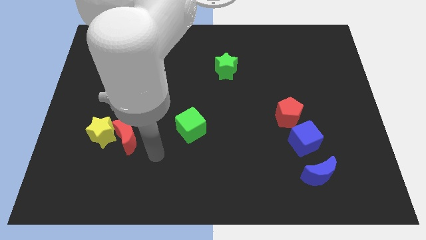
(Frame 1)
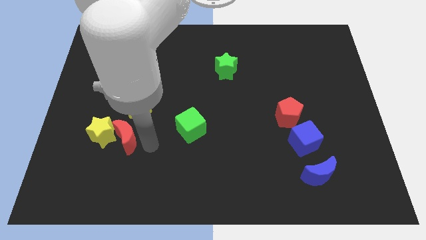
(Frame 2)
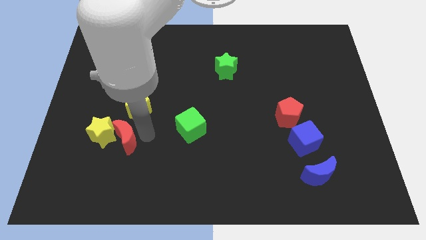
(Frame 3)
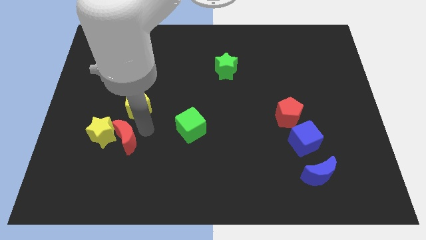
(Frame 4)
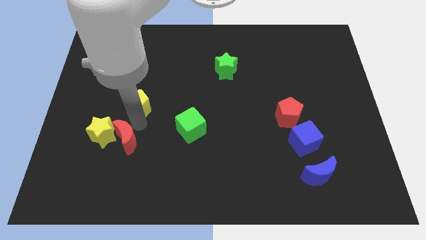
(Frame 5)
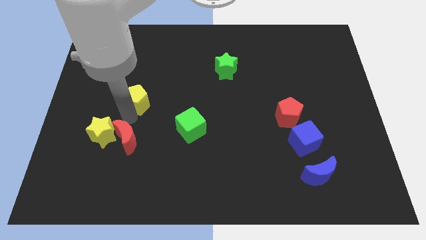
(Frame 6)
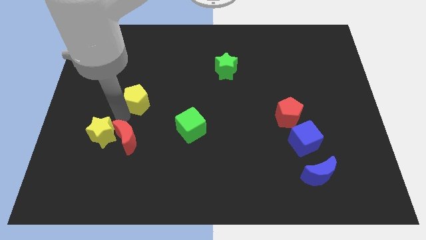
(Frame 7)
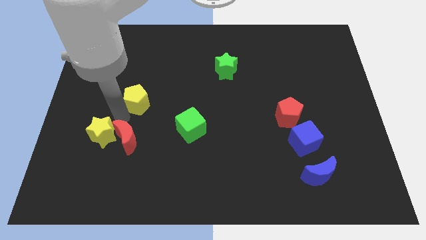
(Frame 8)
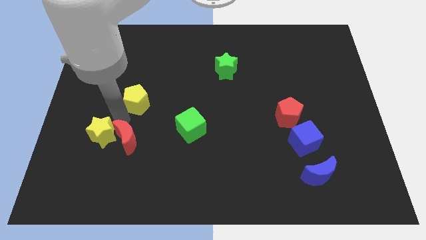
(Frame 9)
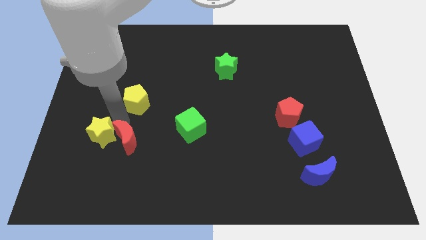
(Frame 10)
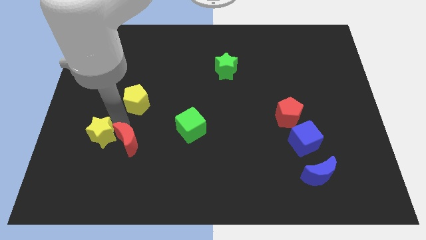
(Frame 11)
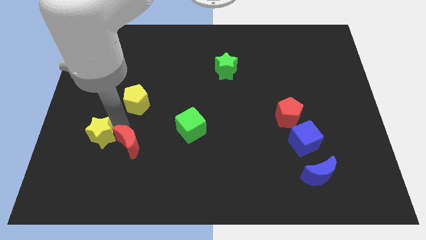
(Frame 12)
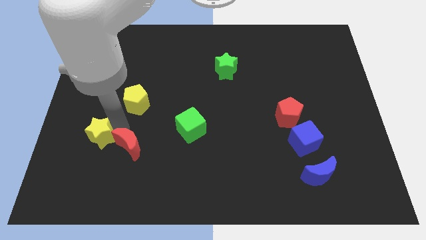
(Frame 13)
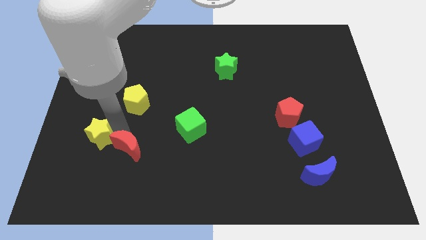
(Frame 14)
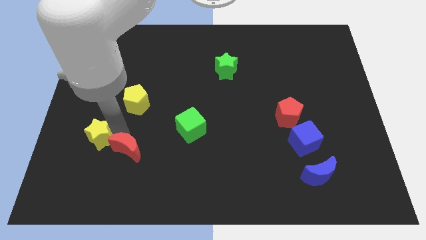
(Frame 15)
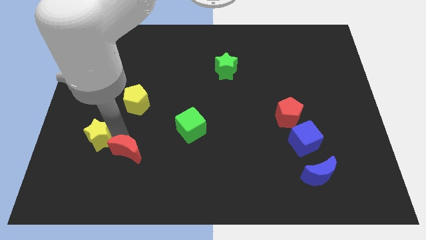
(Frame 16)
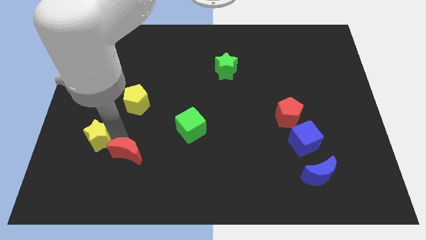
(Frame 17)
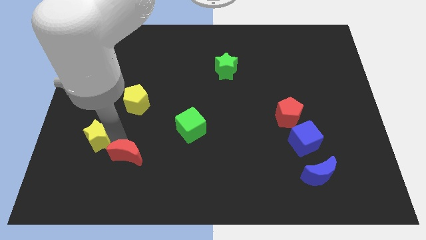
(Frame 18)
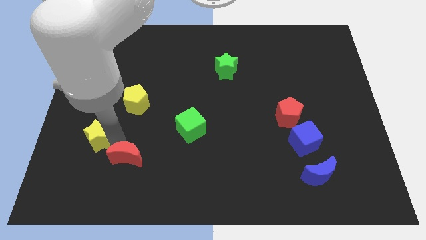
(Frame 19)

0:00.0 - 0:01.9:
separate the red moon from the yellow star and yellow pentagon

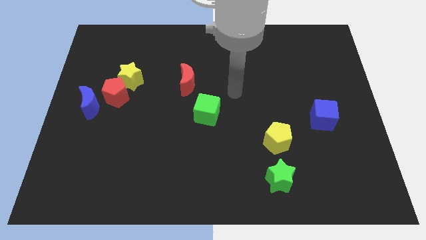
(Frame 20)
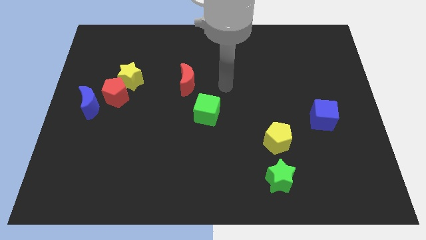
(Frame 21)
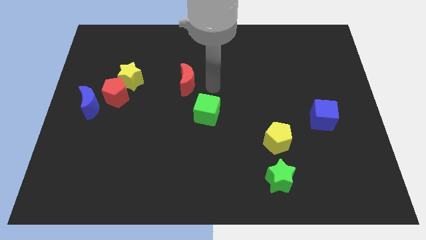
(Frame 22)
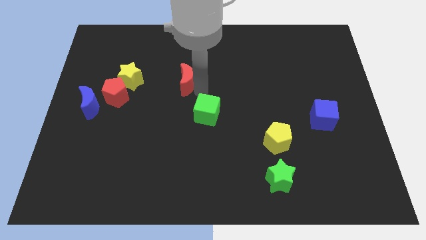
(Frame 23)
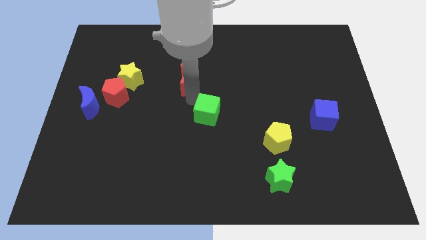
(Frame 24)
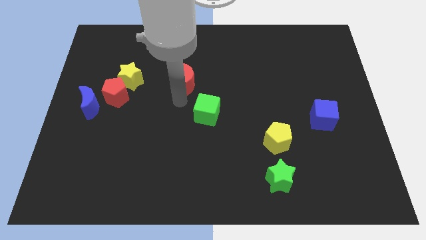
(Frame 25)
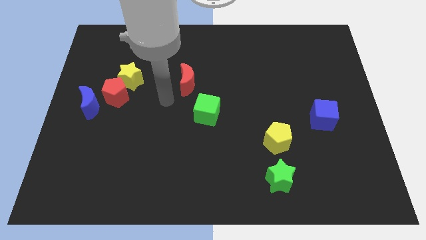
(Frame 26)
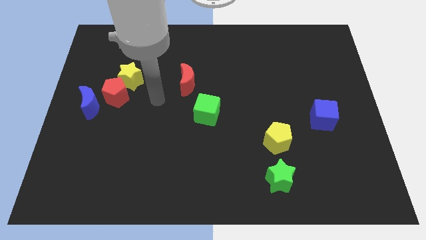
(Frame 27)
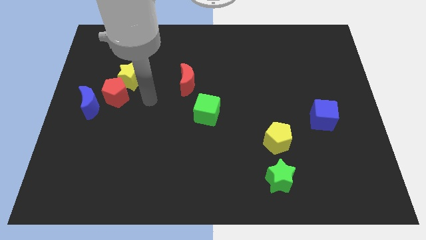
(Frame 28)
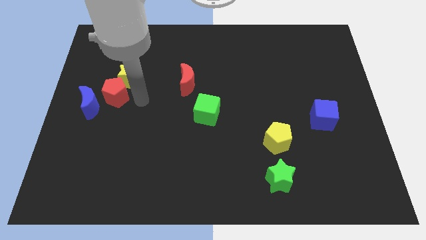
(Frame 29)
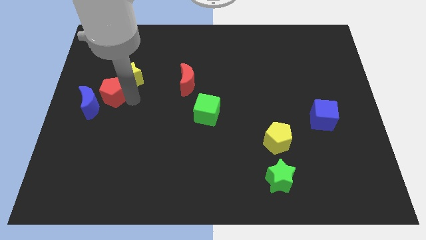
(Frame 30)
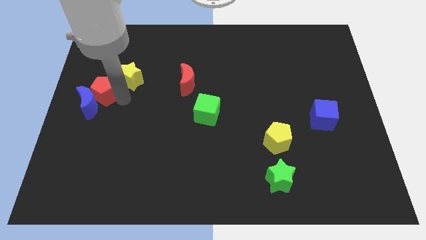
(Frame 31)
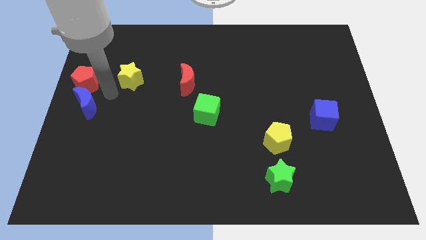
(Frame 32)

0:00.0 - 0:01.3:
separate the yellow star from the red pentagon

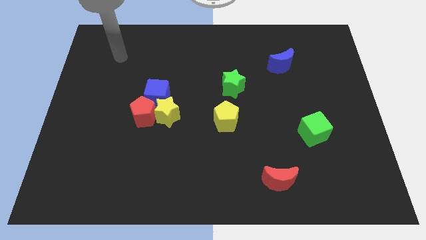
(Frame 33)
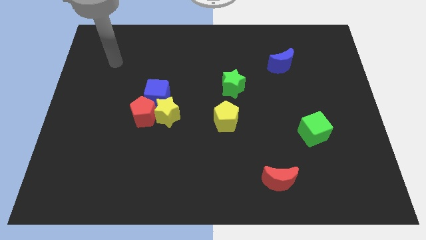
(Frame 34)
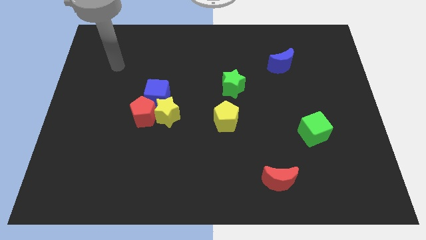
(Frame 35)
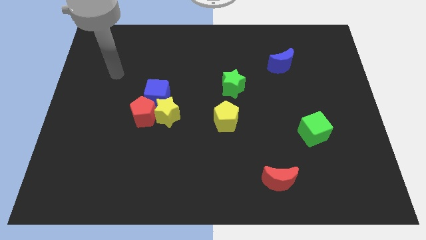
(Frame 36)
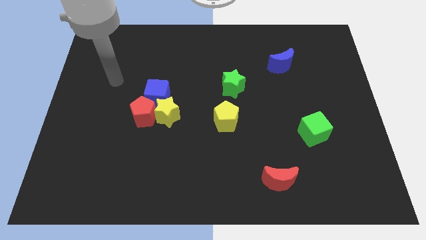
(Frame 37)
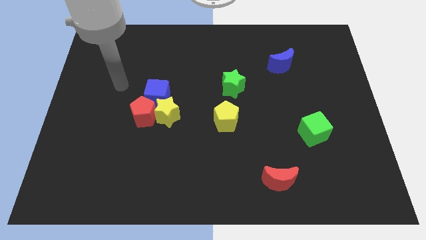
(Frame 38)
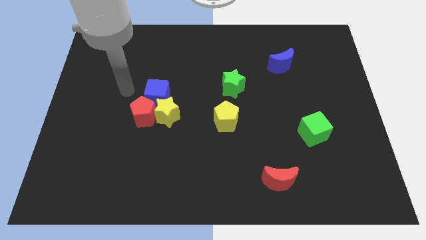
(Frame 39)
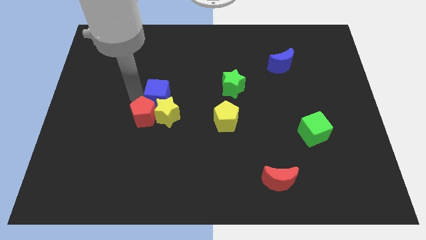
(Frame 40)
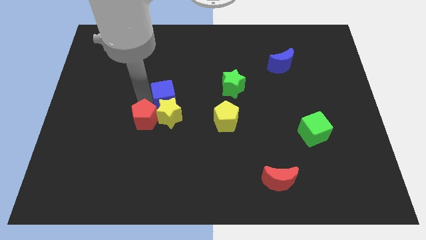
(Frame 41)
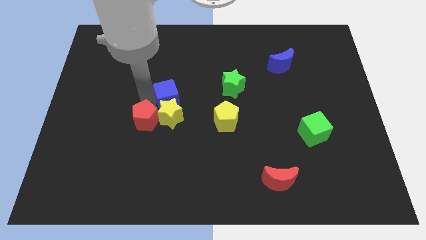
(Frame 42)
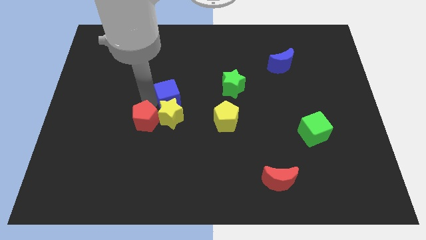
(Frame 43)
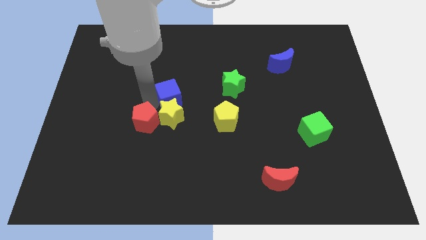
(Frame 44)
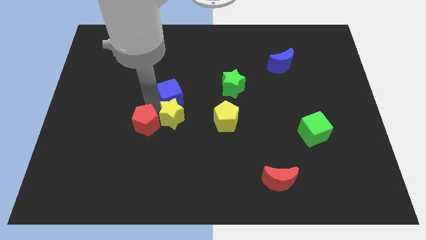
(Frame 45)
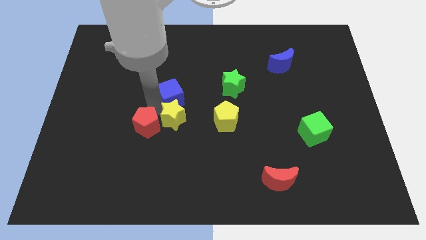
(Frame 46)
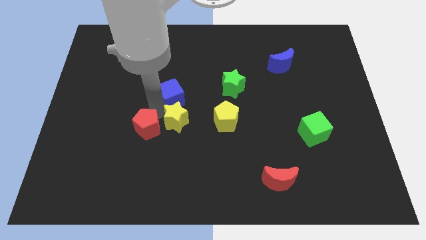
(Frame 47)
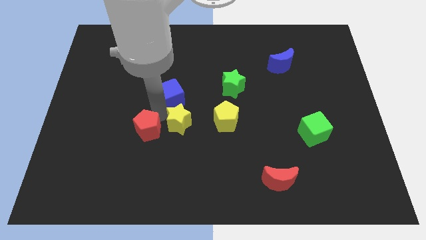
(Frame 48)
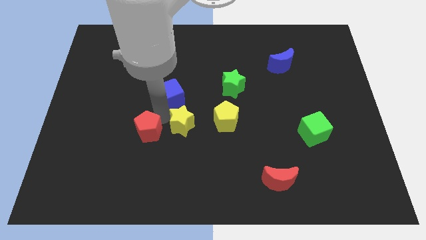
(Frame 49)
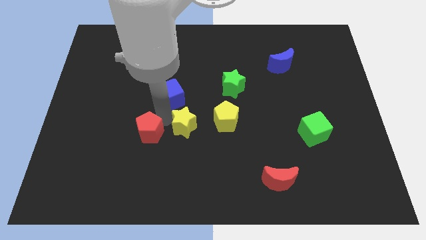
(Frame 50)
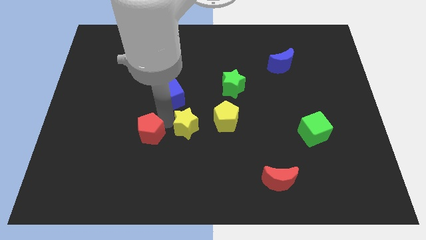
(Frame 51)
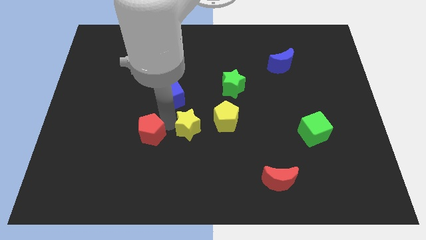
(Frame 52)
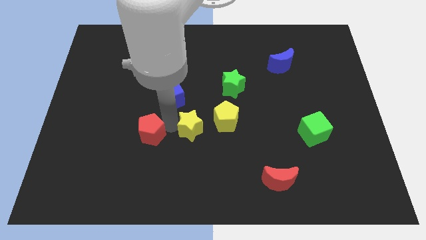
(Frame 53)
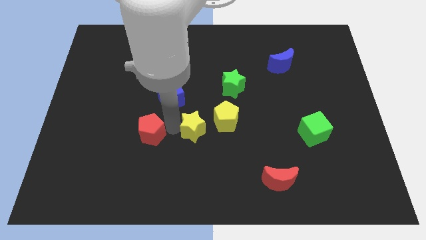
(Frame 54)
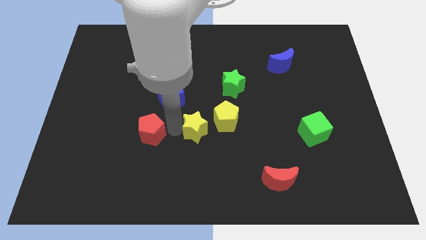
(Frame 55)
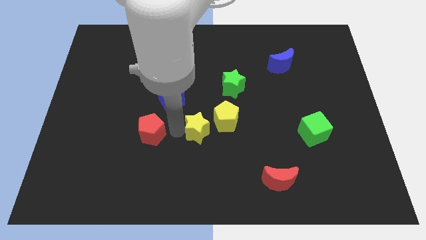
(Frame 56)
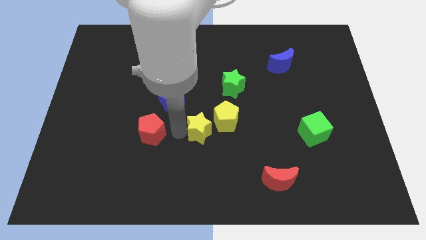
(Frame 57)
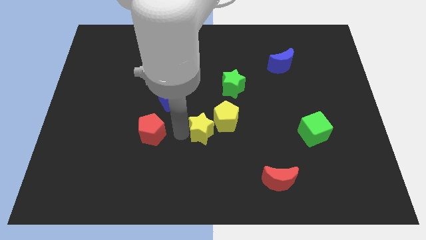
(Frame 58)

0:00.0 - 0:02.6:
separate the yellow star from the red pentagon and blue cube

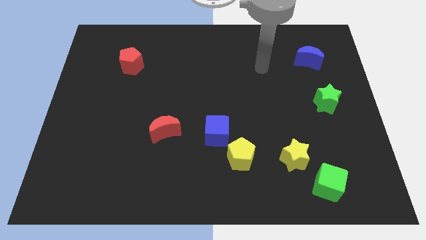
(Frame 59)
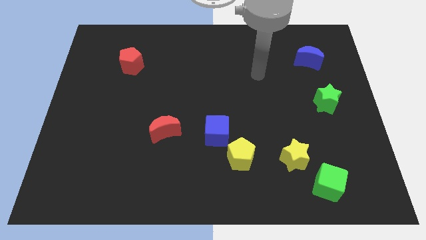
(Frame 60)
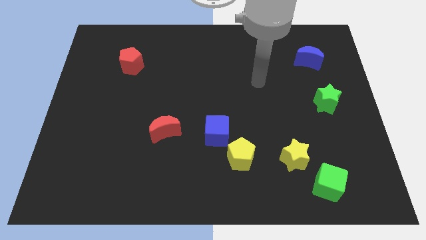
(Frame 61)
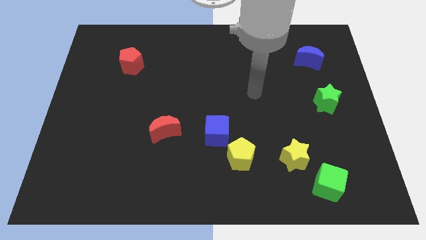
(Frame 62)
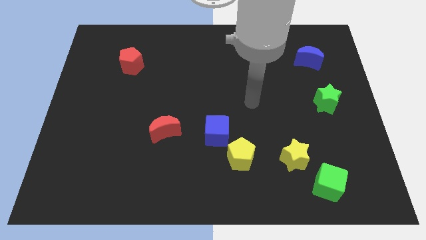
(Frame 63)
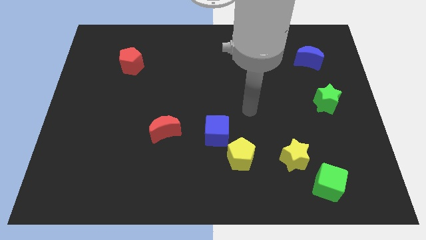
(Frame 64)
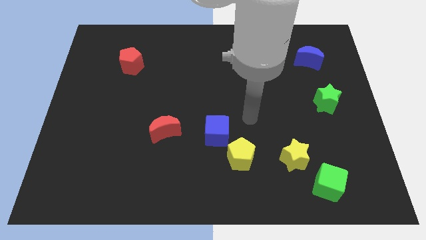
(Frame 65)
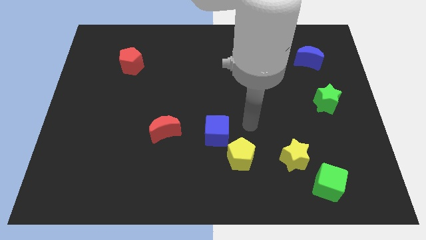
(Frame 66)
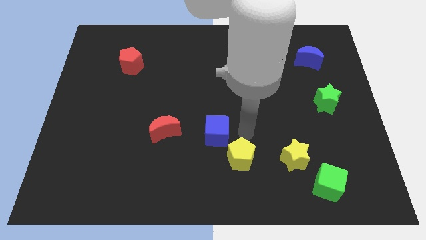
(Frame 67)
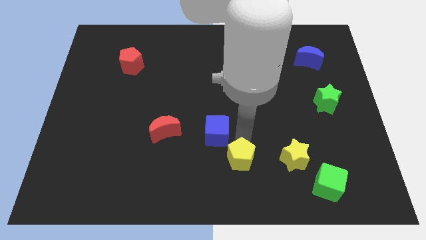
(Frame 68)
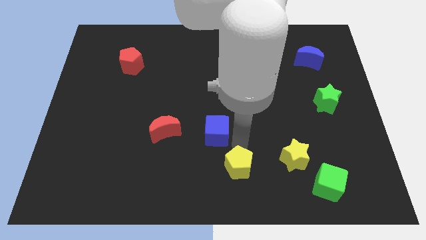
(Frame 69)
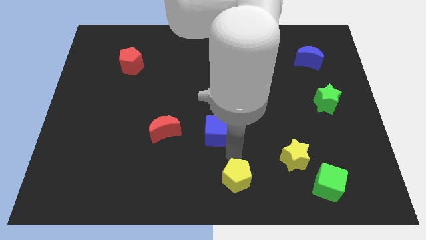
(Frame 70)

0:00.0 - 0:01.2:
pull the blue cube apart from the yellow pentagon

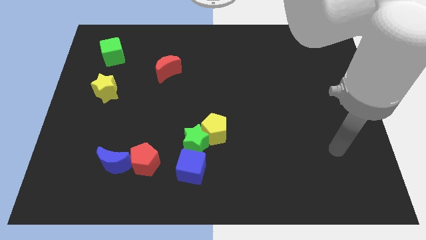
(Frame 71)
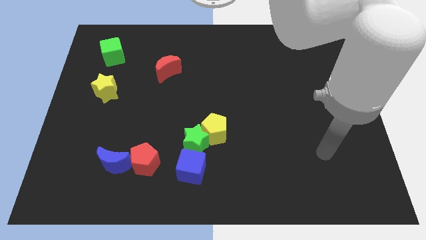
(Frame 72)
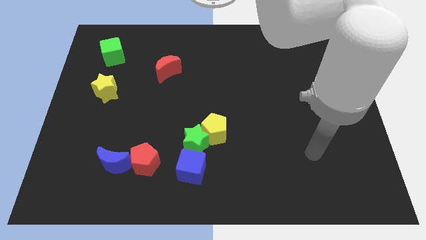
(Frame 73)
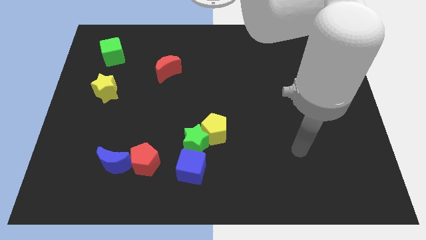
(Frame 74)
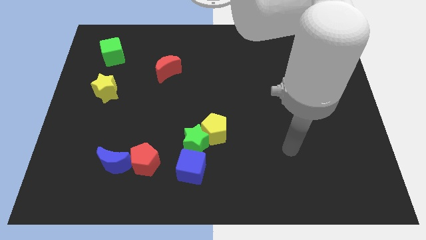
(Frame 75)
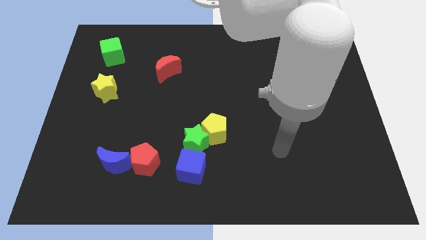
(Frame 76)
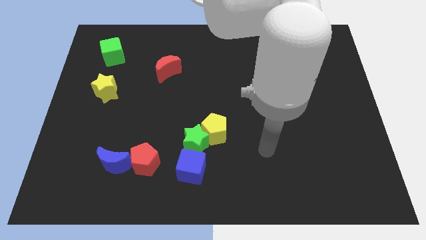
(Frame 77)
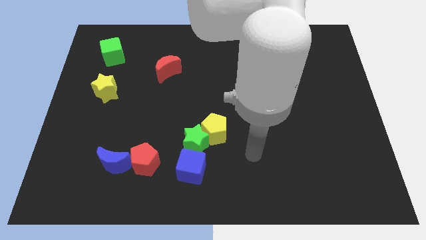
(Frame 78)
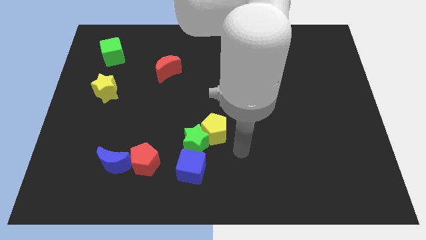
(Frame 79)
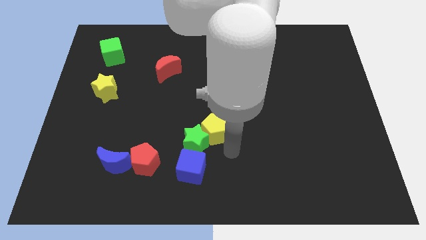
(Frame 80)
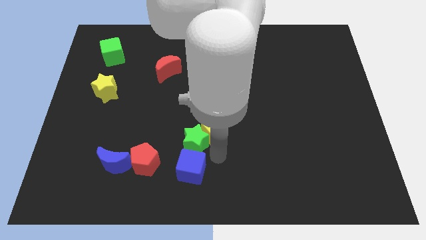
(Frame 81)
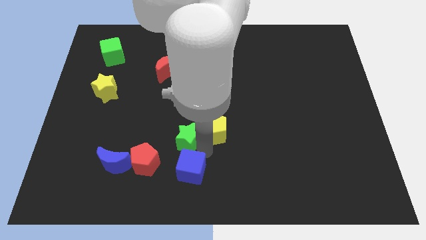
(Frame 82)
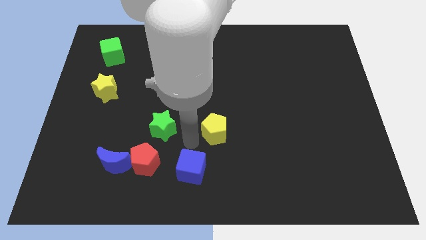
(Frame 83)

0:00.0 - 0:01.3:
move the yellow pentagon away from the green star

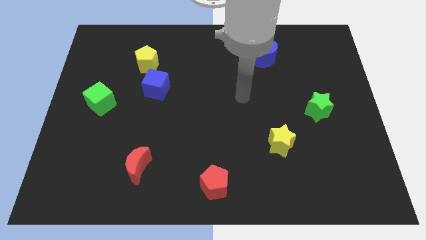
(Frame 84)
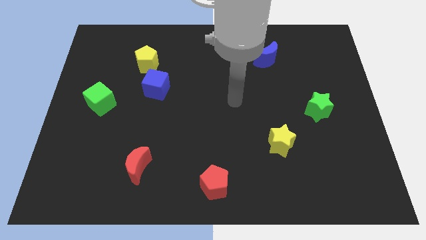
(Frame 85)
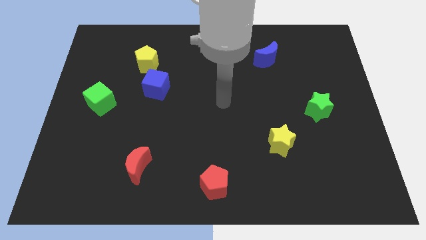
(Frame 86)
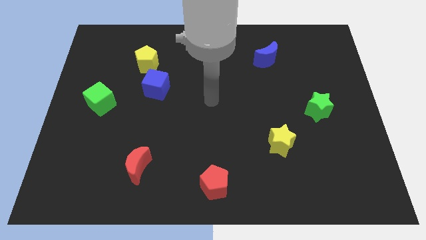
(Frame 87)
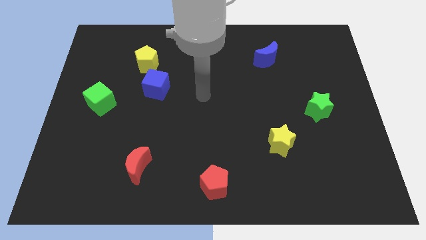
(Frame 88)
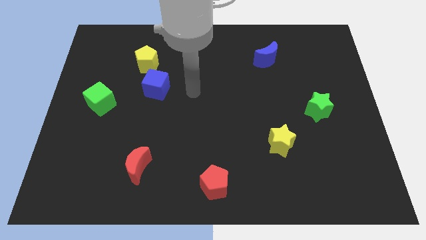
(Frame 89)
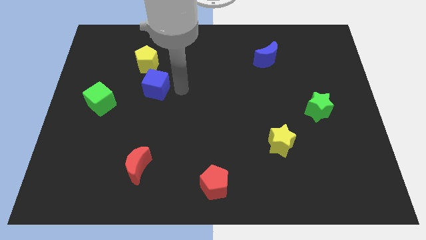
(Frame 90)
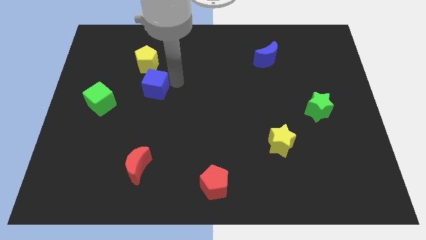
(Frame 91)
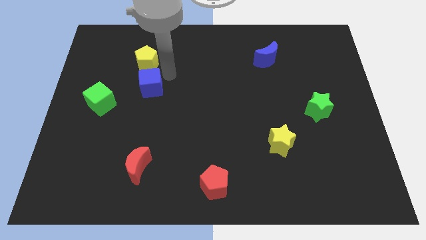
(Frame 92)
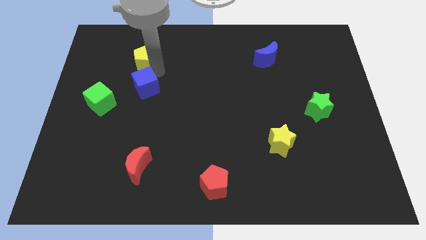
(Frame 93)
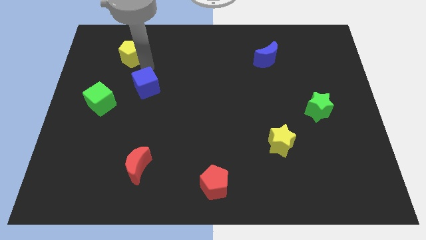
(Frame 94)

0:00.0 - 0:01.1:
move the blue cube away from the yellow pentagon
